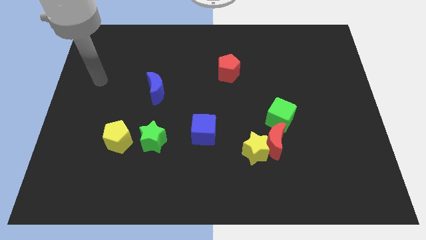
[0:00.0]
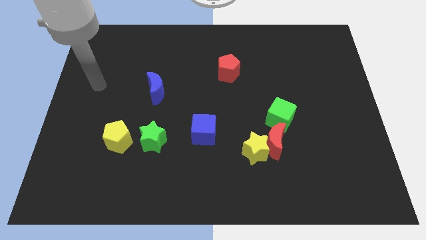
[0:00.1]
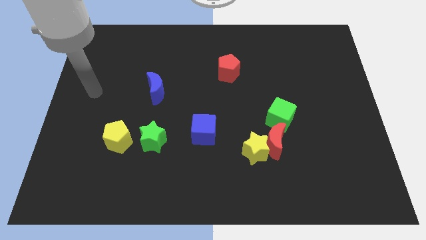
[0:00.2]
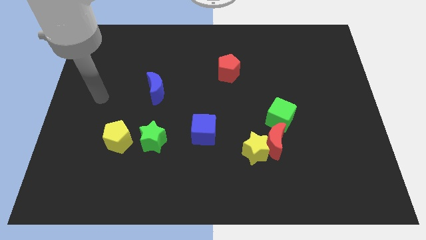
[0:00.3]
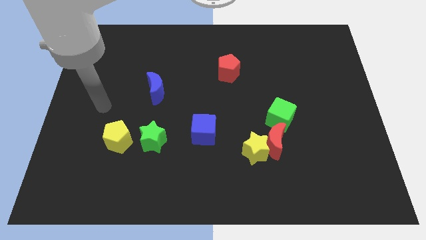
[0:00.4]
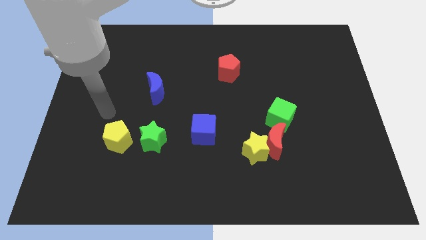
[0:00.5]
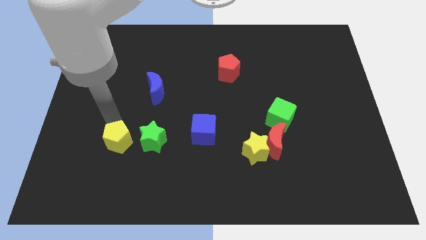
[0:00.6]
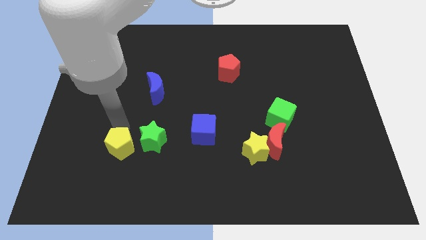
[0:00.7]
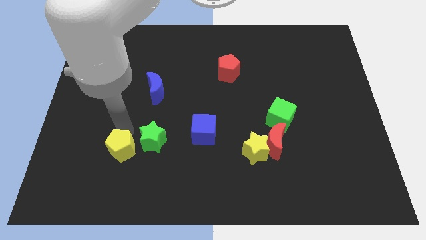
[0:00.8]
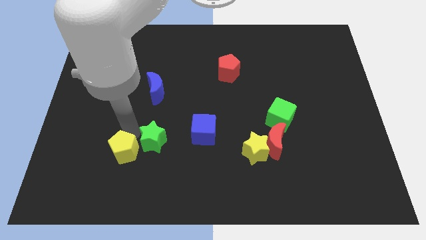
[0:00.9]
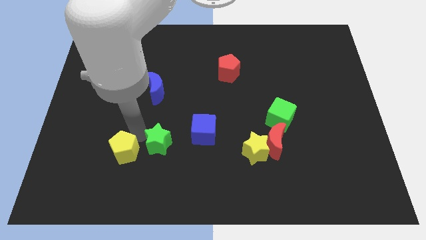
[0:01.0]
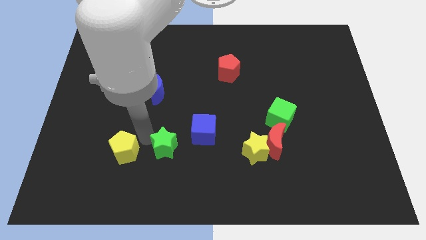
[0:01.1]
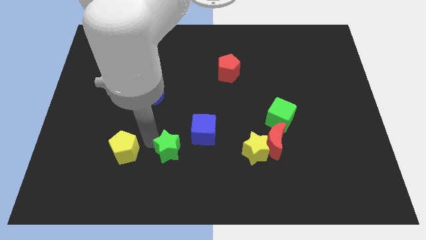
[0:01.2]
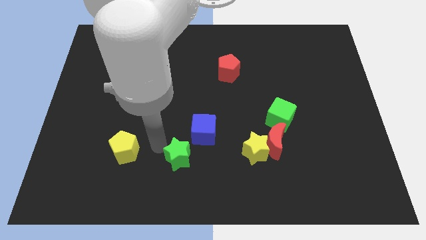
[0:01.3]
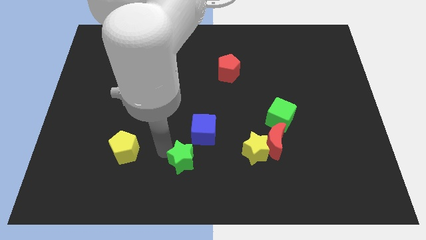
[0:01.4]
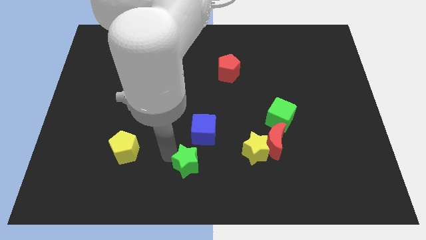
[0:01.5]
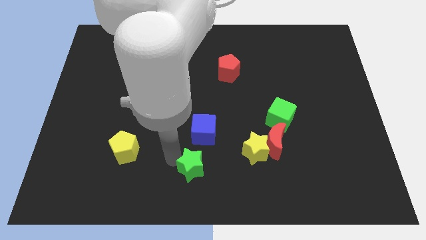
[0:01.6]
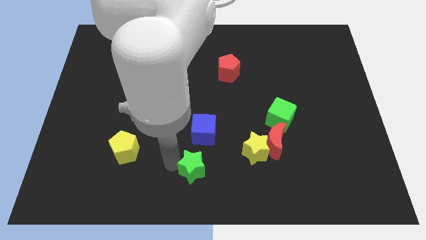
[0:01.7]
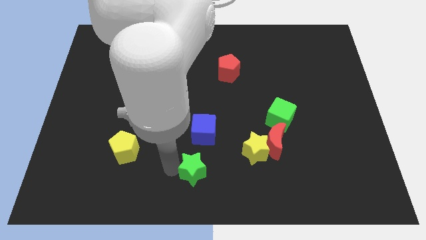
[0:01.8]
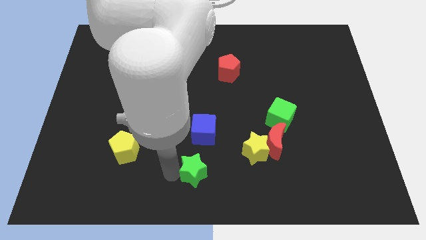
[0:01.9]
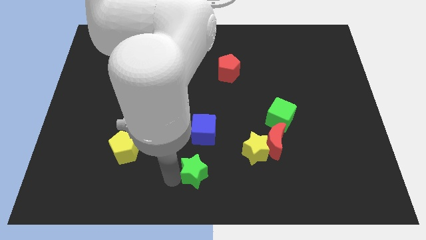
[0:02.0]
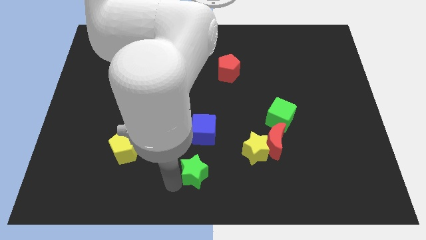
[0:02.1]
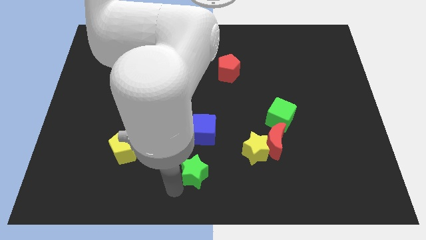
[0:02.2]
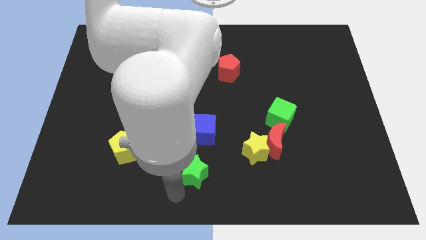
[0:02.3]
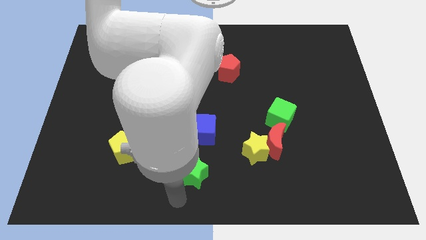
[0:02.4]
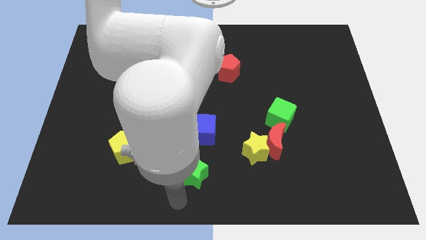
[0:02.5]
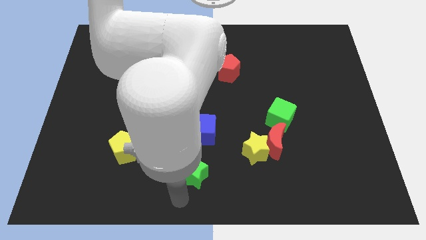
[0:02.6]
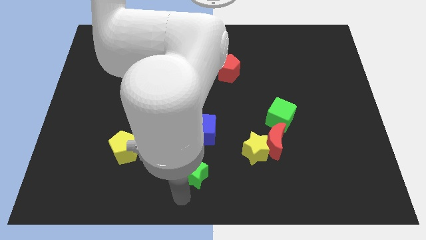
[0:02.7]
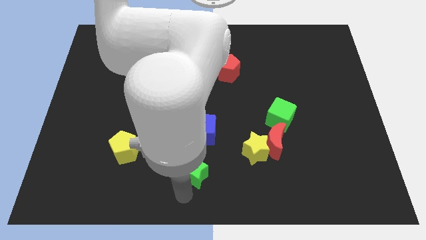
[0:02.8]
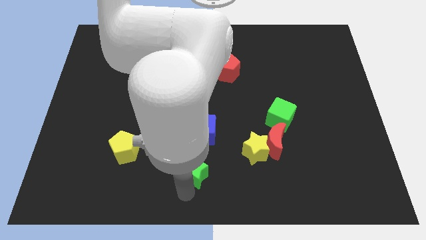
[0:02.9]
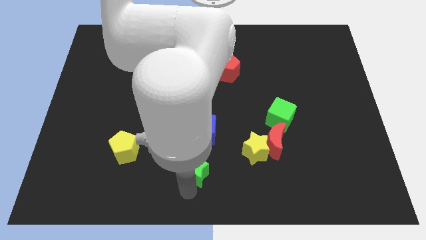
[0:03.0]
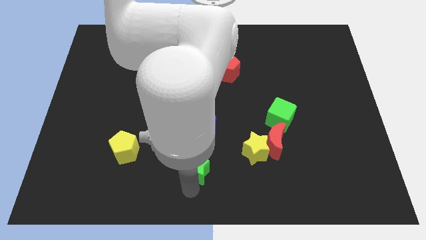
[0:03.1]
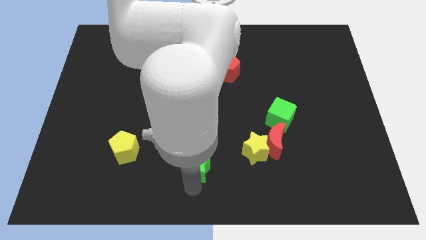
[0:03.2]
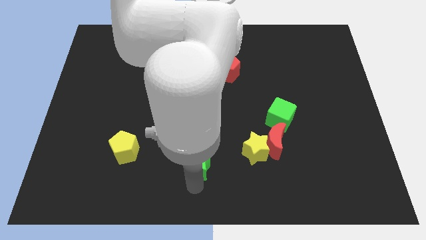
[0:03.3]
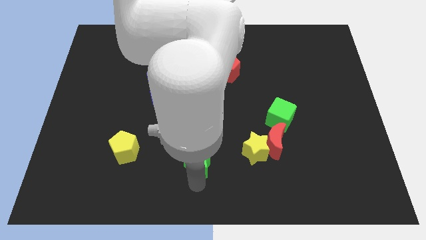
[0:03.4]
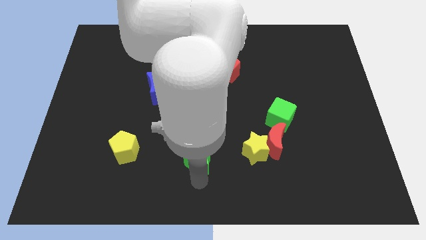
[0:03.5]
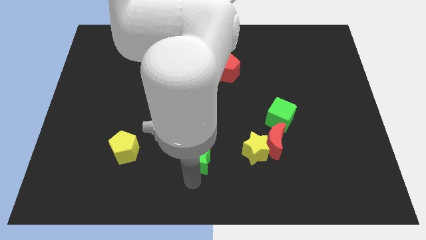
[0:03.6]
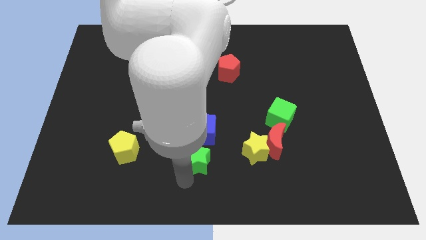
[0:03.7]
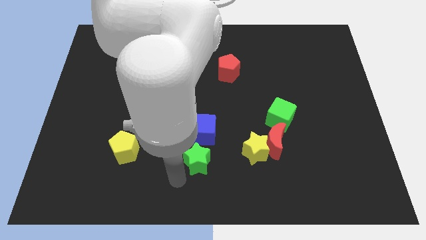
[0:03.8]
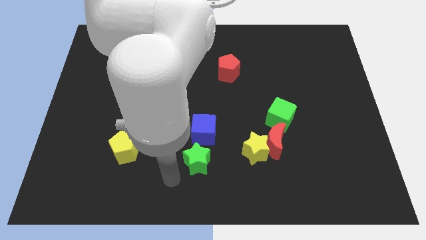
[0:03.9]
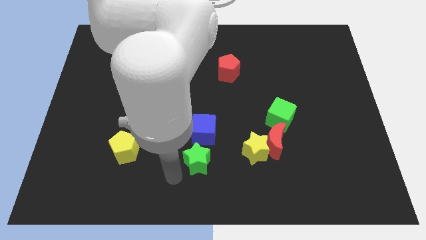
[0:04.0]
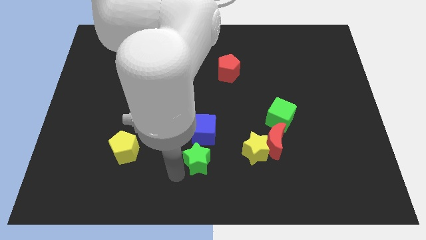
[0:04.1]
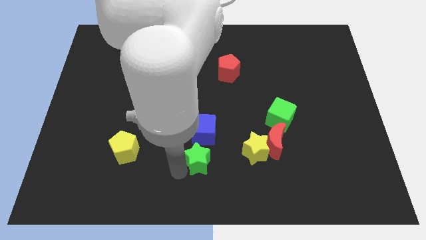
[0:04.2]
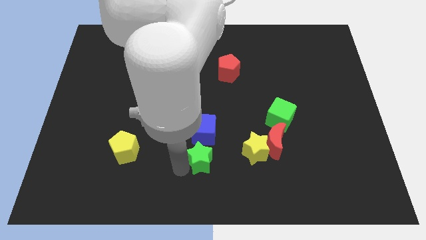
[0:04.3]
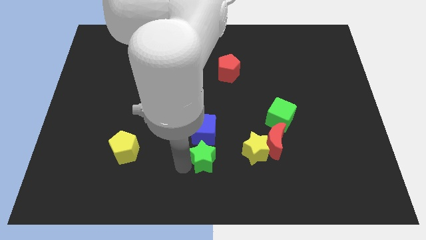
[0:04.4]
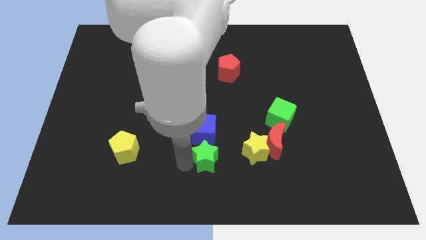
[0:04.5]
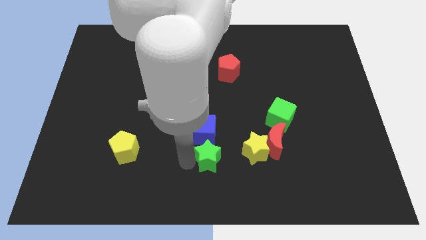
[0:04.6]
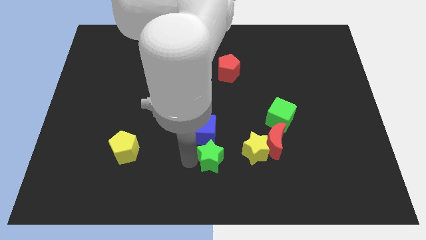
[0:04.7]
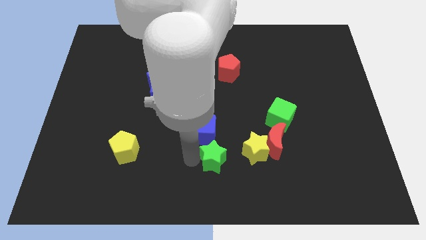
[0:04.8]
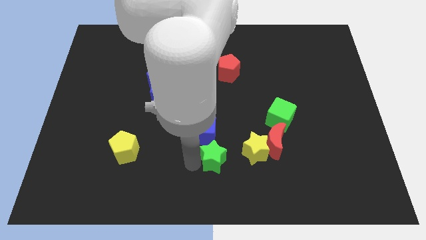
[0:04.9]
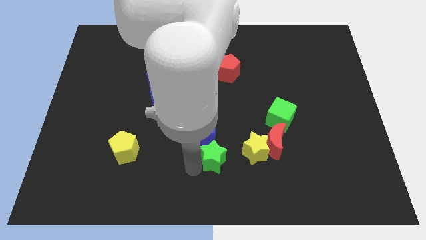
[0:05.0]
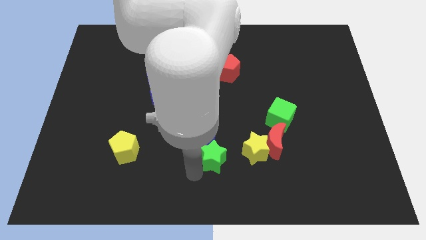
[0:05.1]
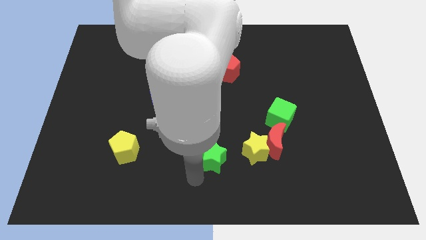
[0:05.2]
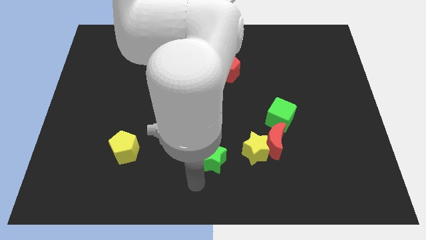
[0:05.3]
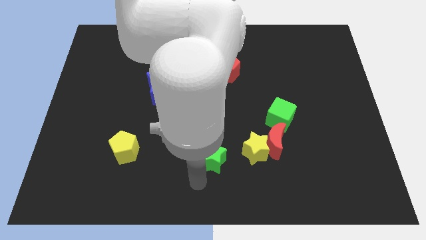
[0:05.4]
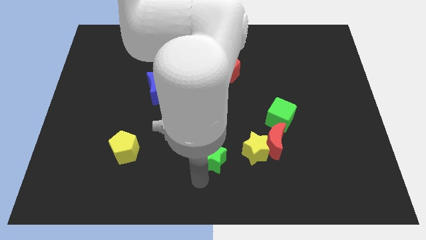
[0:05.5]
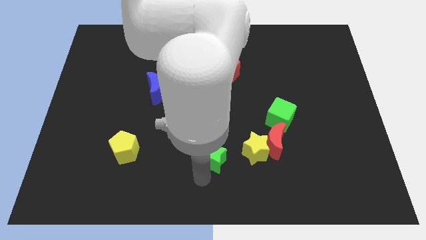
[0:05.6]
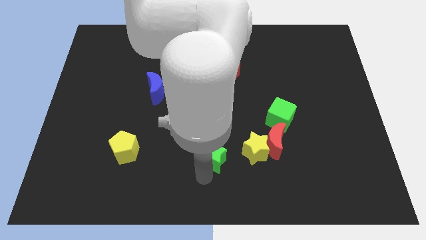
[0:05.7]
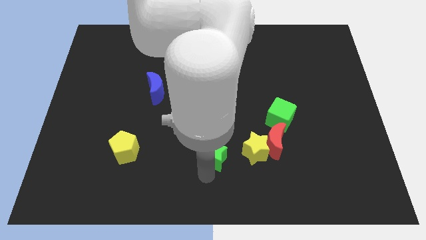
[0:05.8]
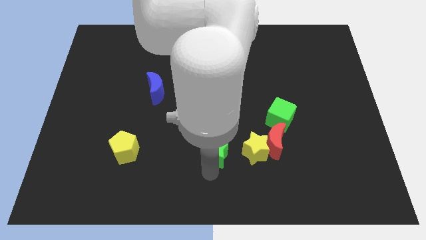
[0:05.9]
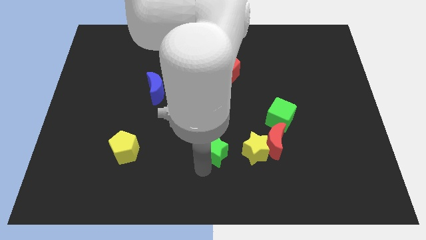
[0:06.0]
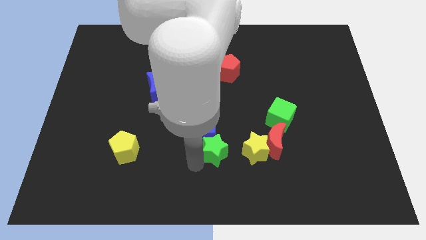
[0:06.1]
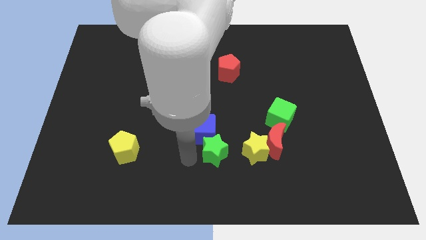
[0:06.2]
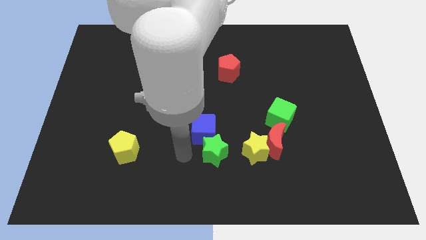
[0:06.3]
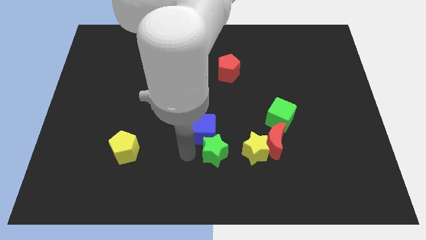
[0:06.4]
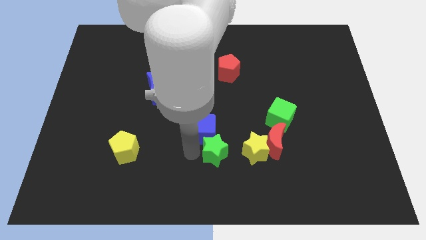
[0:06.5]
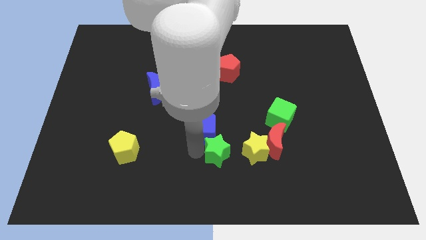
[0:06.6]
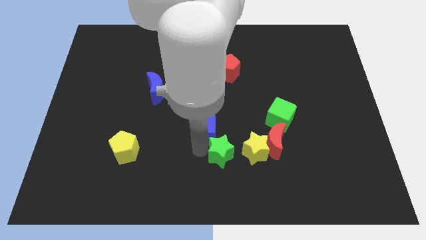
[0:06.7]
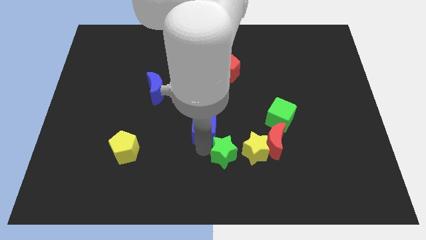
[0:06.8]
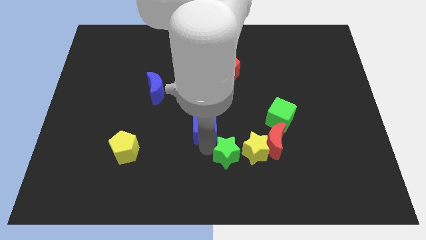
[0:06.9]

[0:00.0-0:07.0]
slide the green star towards the yellow star
